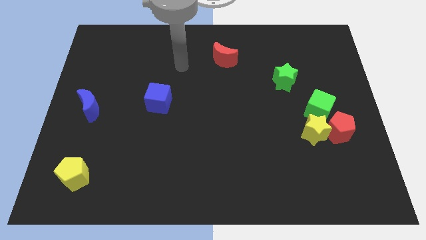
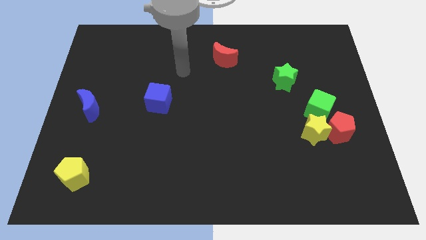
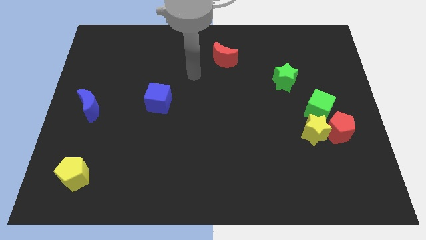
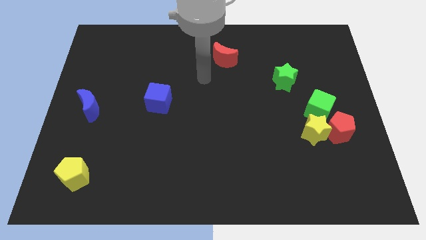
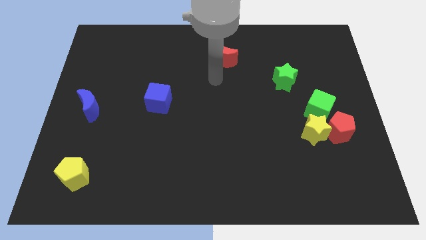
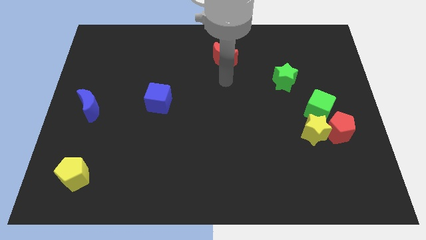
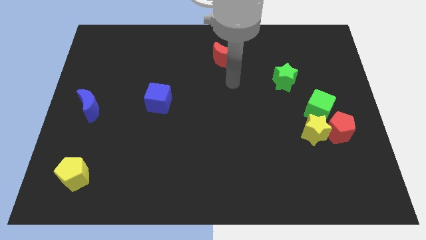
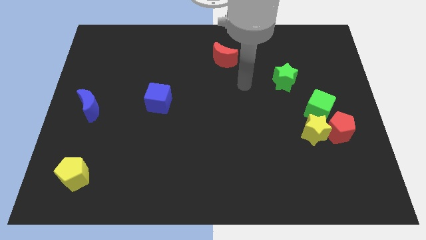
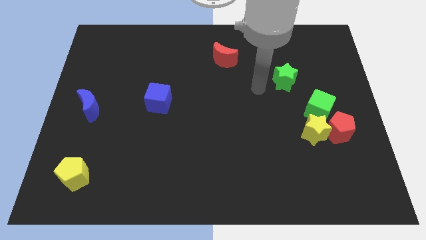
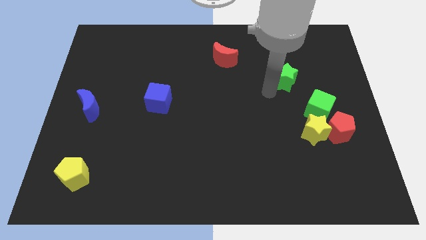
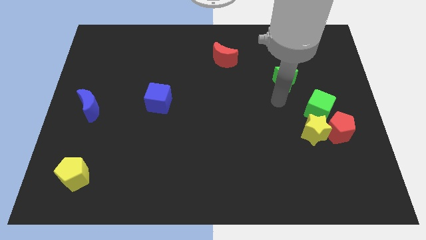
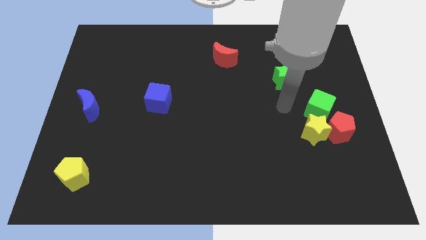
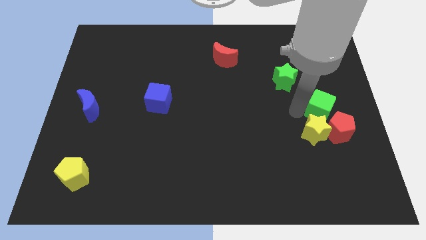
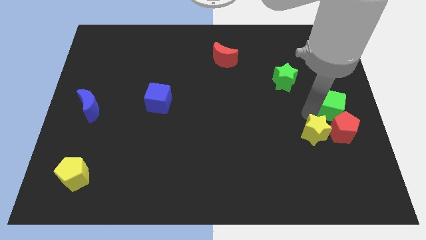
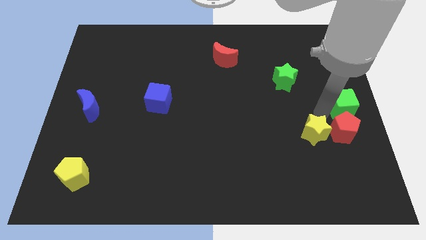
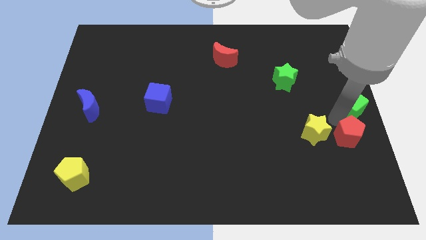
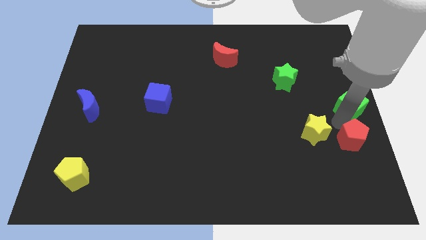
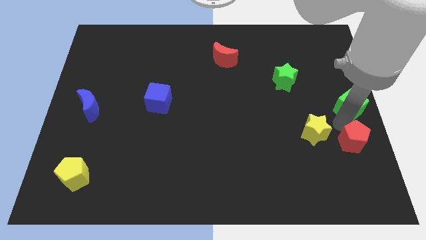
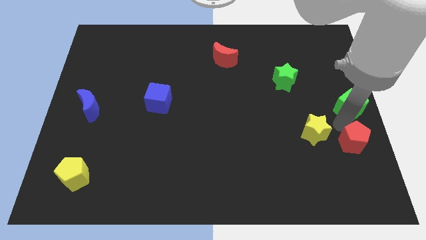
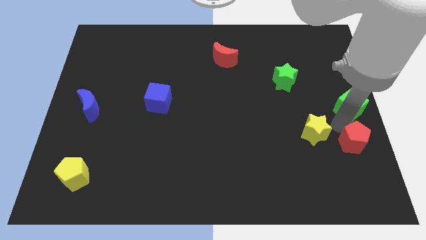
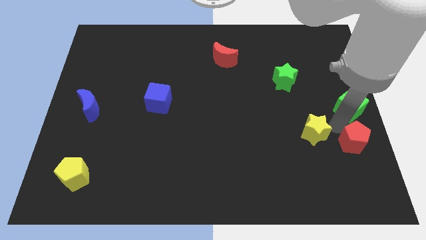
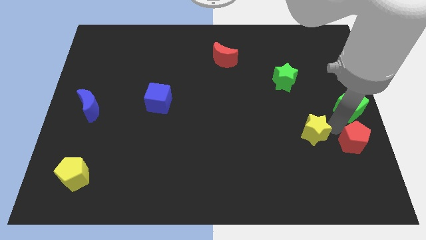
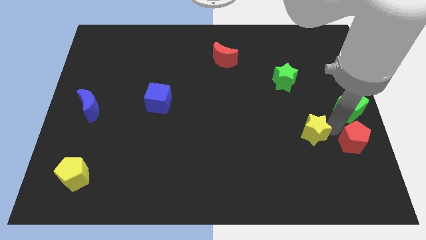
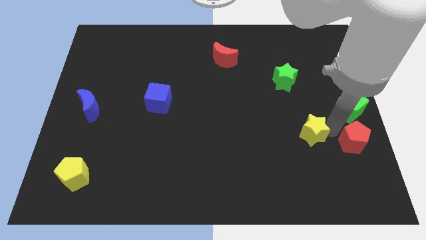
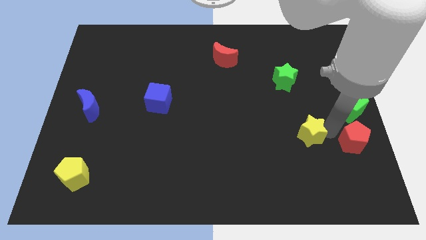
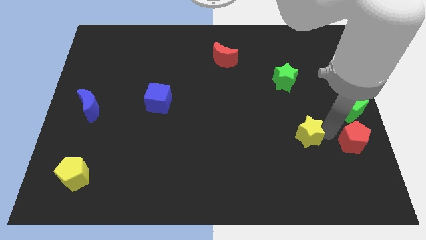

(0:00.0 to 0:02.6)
move the yellow star away from the red pentagon and green cube

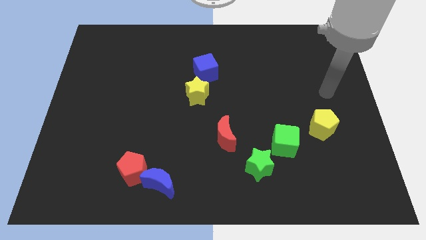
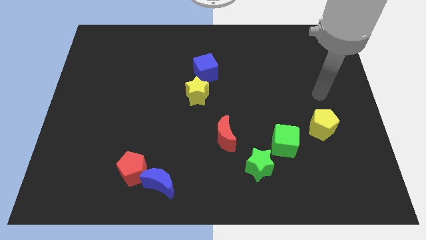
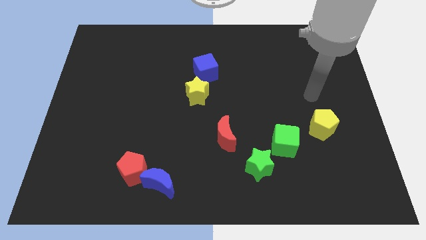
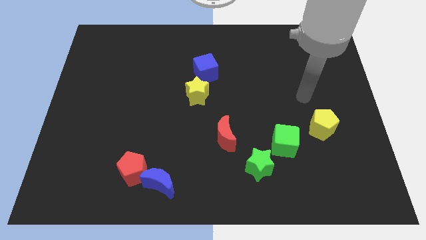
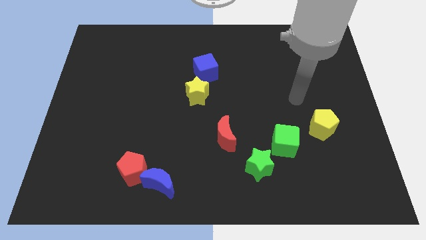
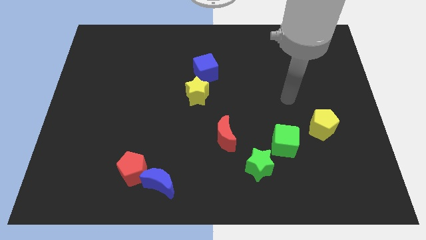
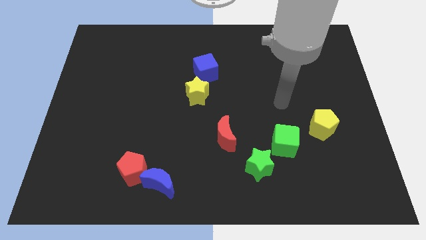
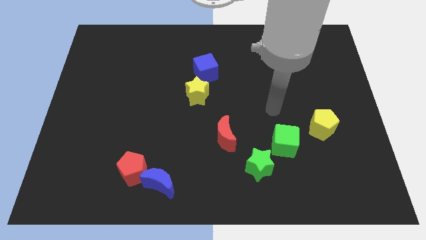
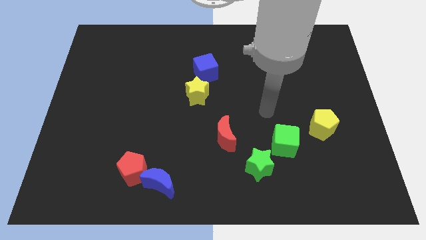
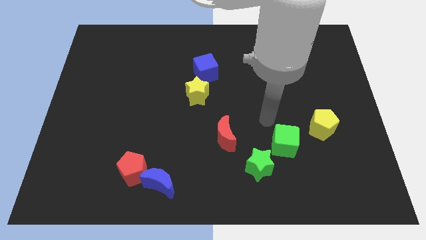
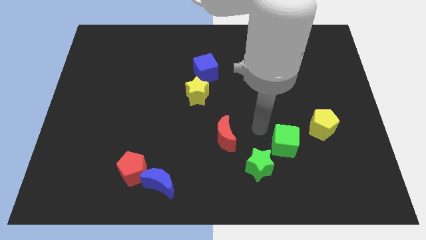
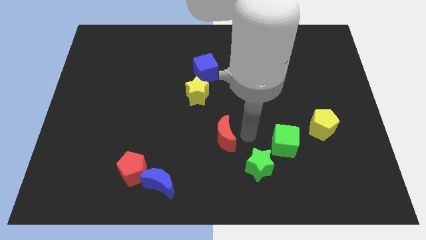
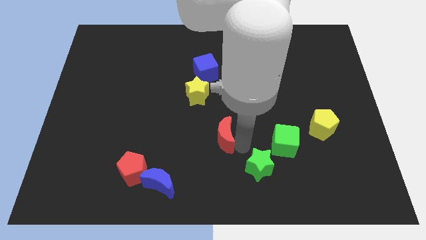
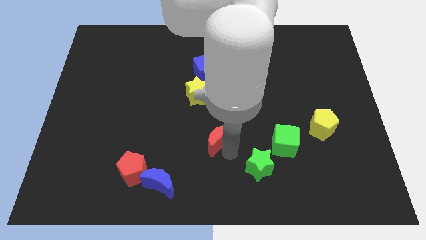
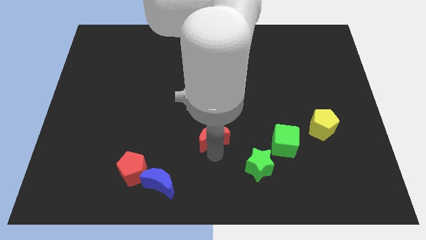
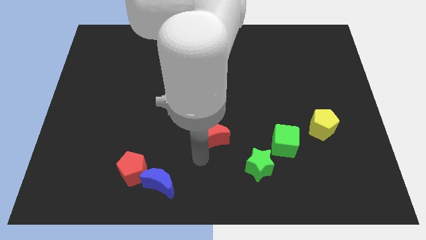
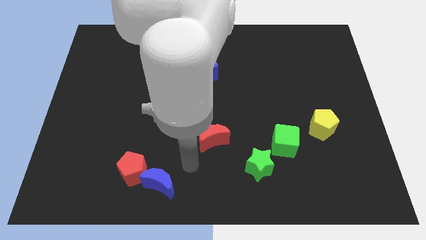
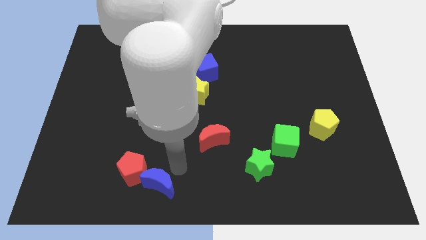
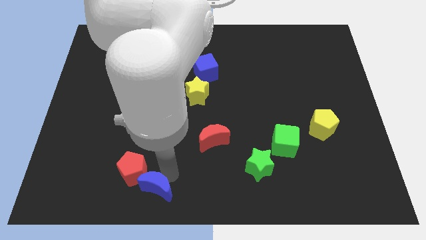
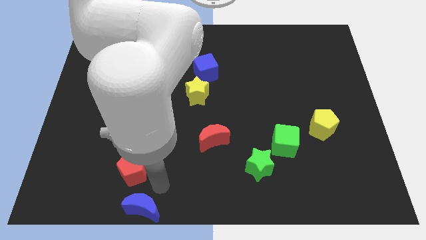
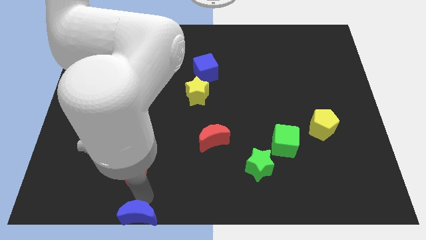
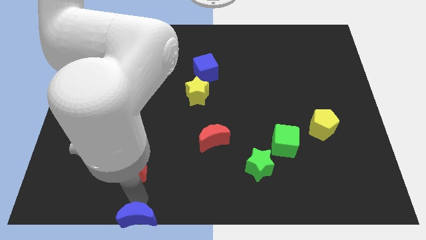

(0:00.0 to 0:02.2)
separate the red pentagon from the blue moon

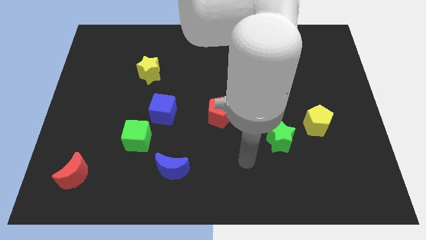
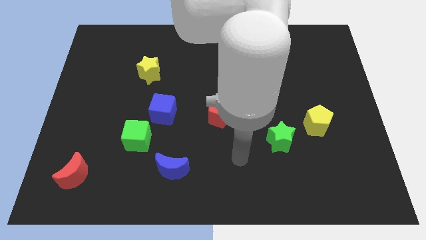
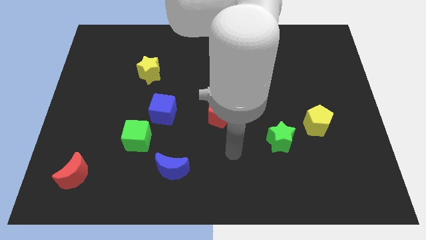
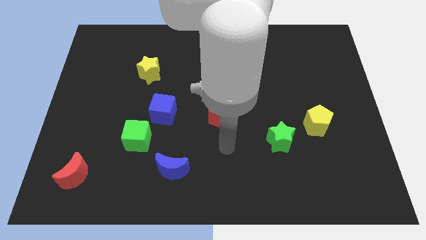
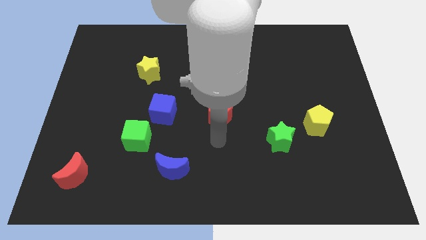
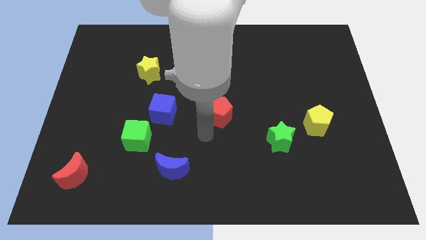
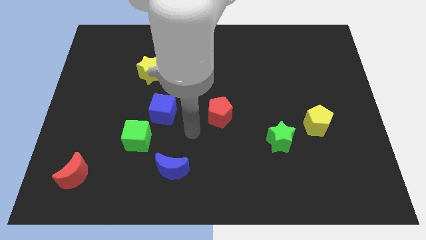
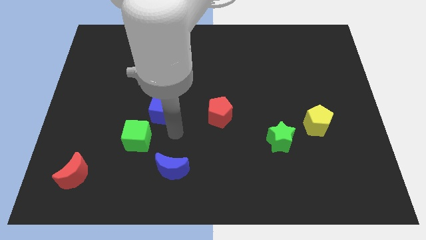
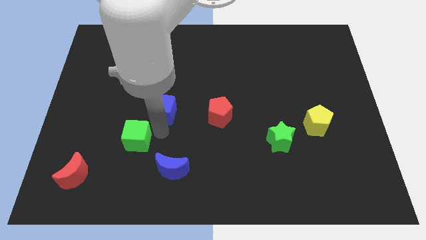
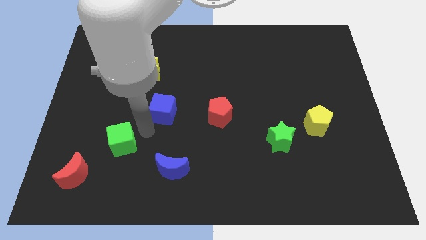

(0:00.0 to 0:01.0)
separate the blue cube from the green cube

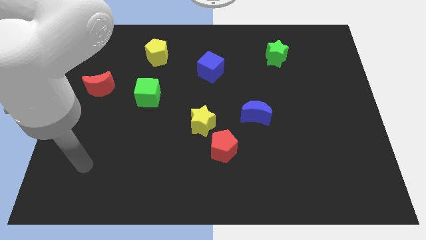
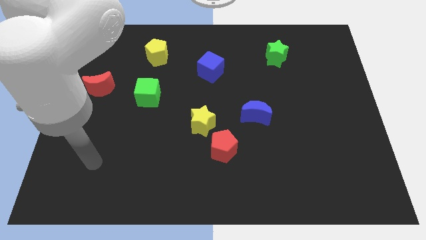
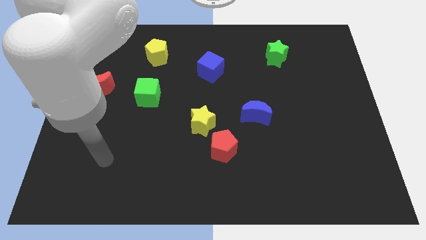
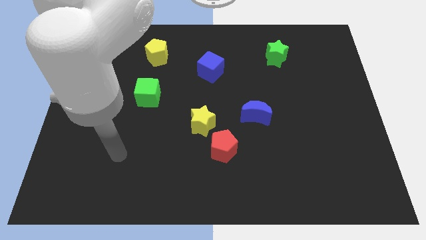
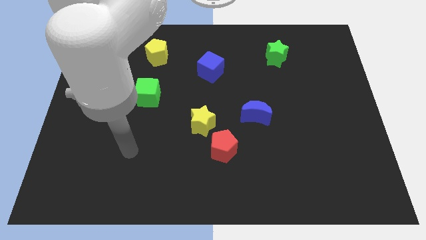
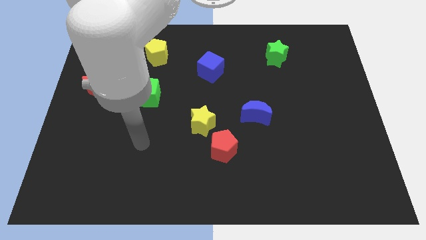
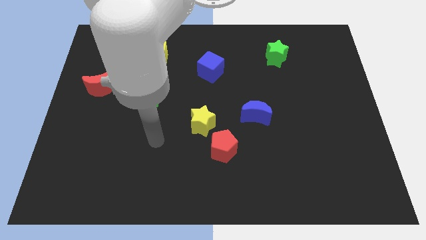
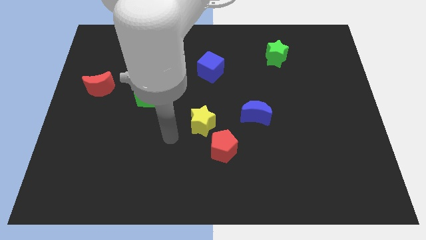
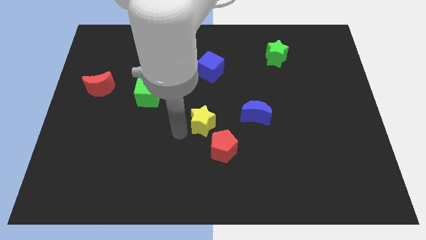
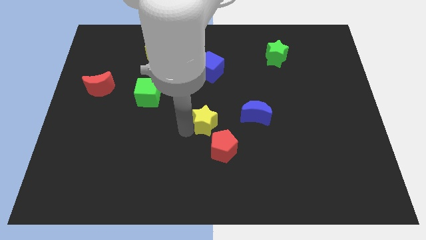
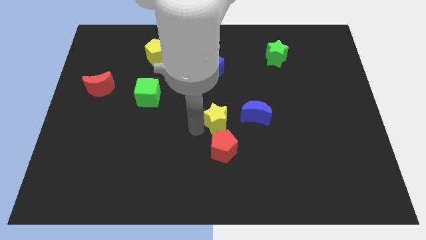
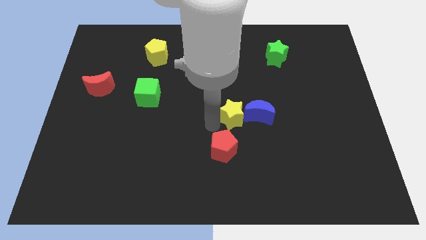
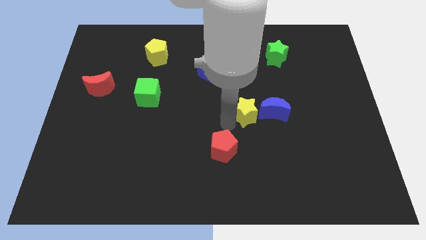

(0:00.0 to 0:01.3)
pull the red pentagon apart from the yellow star

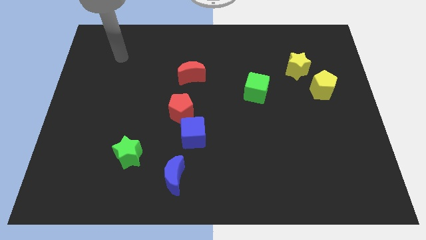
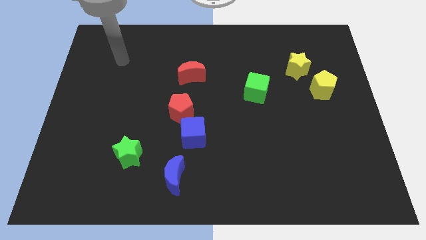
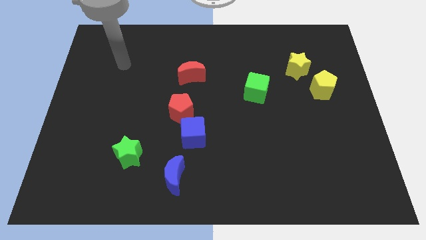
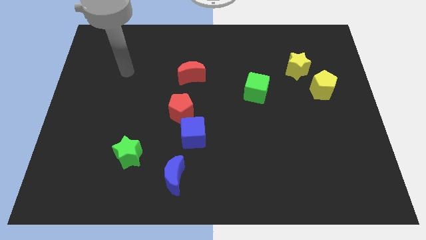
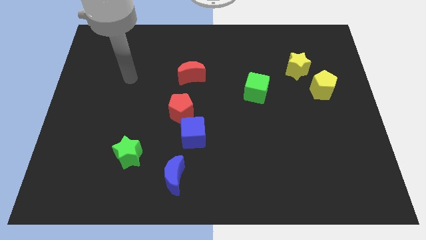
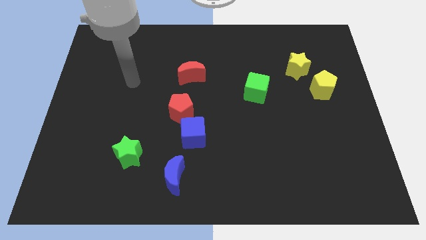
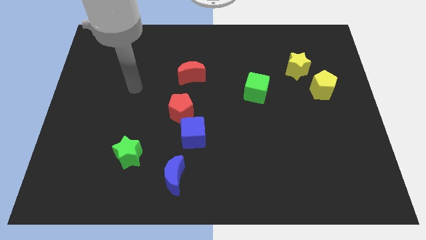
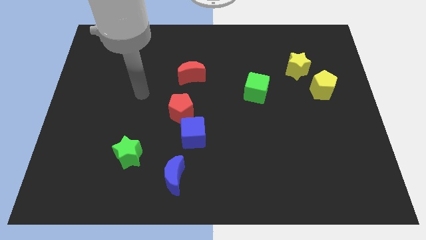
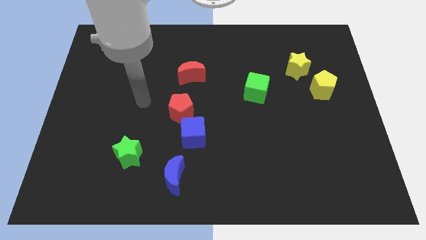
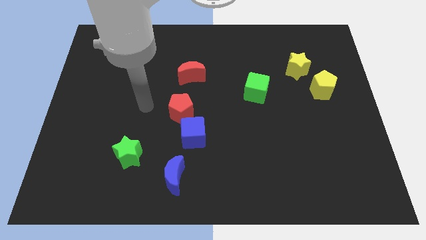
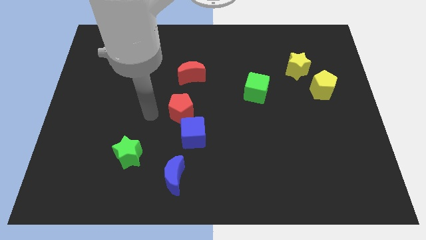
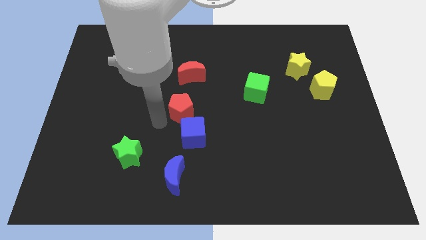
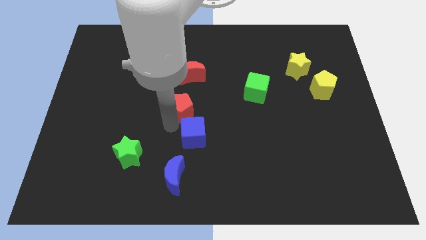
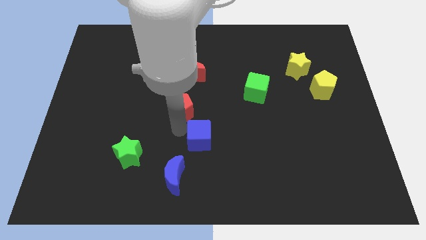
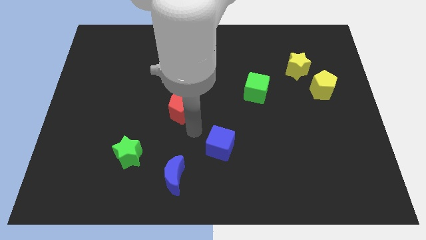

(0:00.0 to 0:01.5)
pull the red pentagon apart from the blue cube

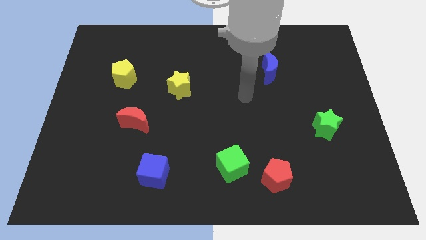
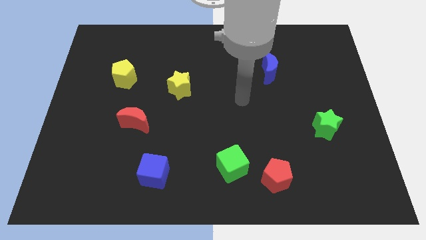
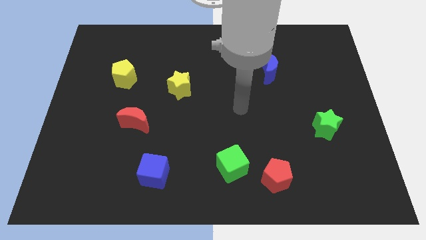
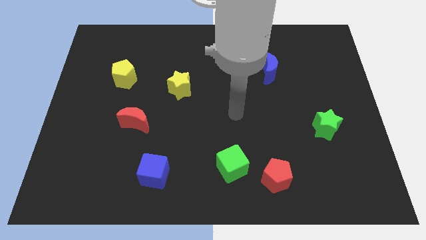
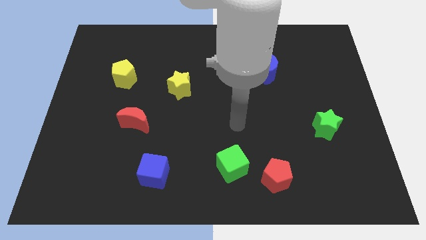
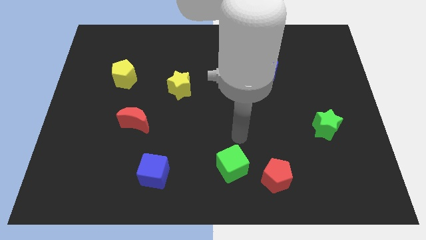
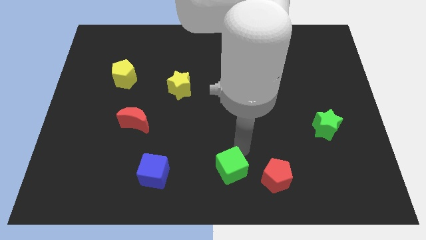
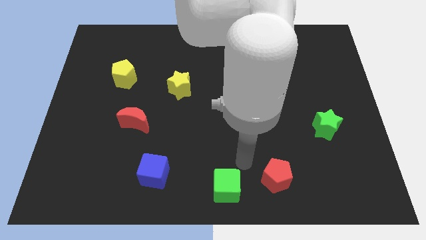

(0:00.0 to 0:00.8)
separate the red pentagon from the green cube
